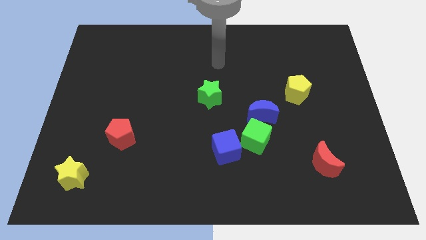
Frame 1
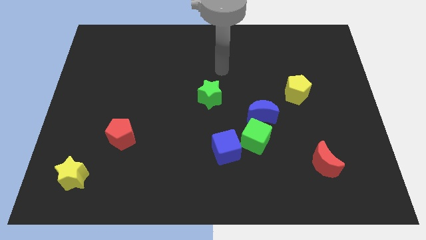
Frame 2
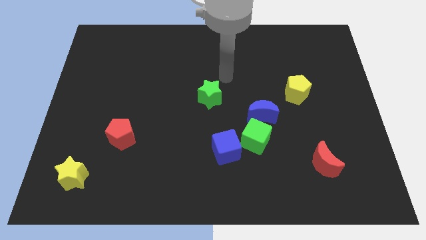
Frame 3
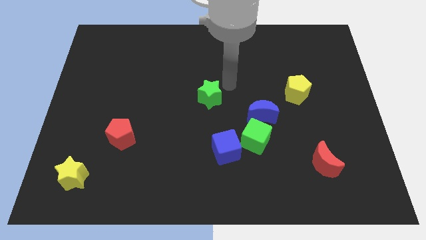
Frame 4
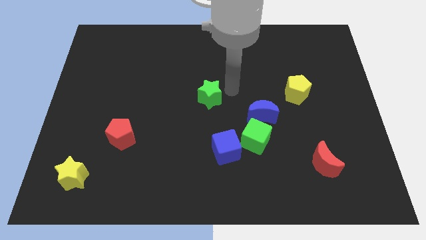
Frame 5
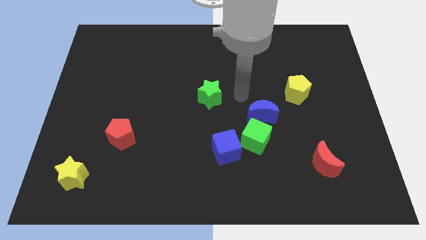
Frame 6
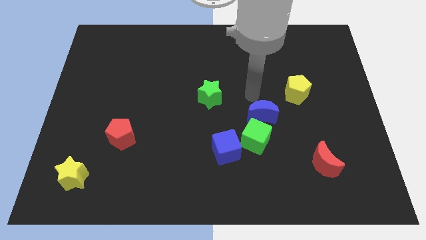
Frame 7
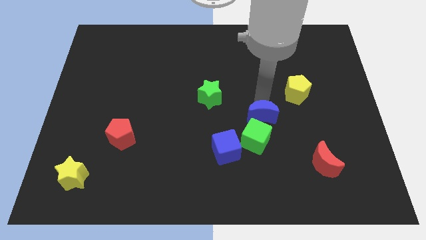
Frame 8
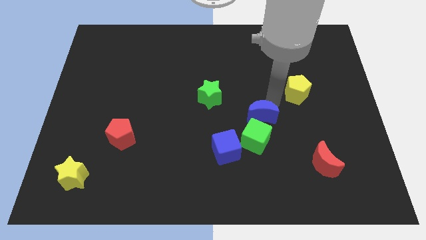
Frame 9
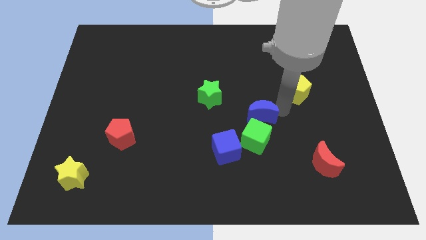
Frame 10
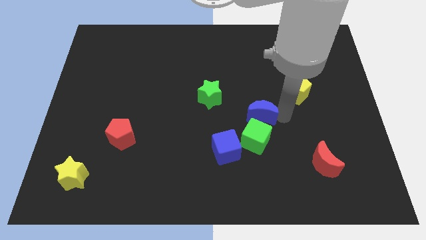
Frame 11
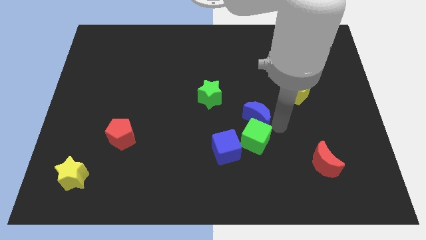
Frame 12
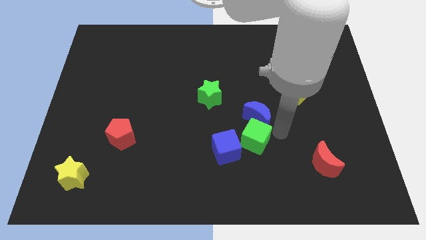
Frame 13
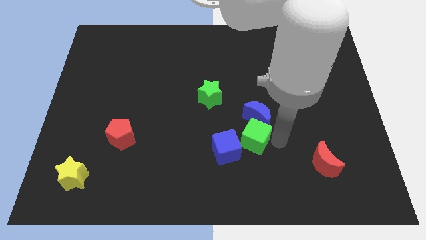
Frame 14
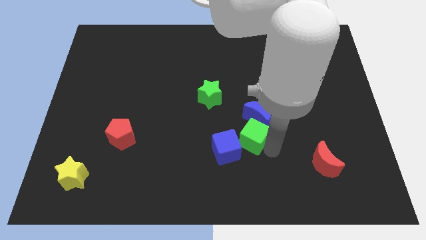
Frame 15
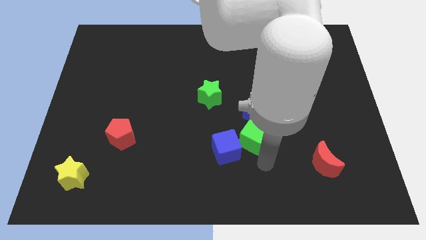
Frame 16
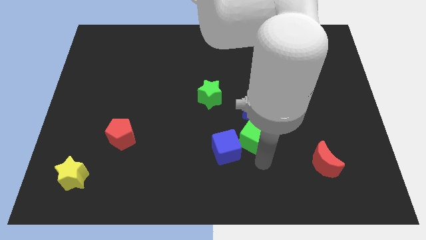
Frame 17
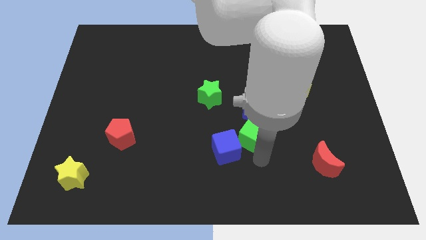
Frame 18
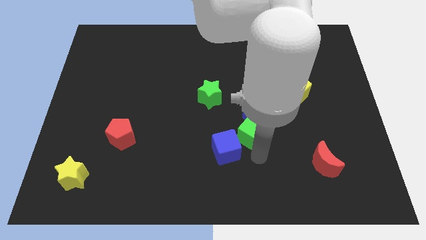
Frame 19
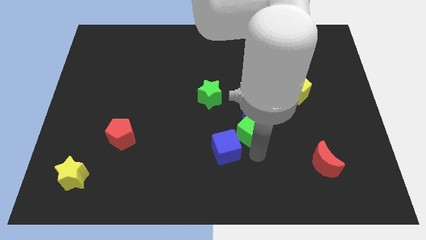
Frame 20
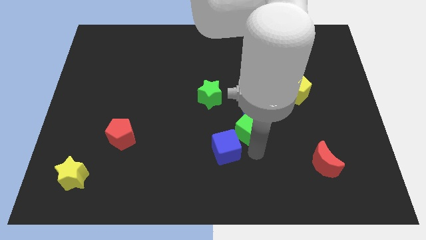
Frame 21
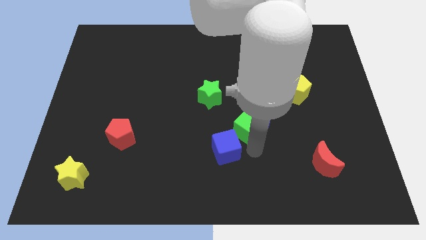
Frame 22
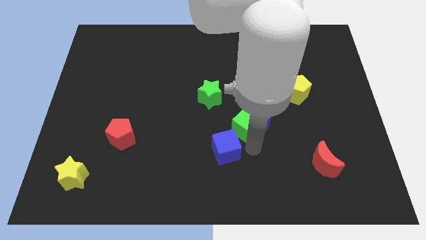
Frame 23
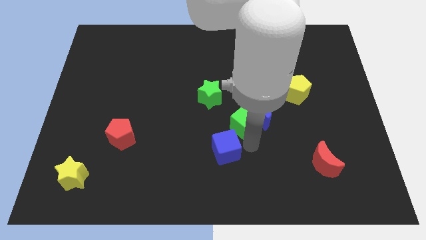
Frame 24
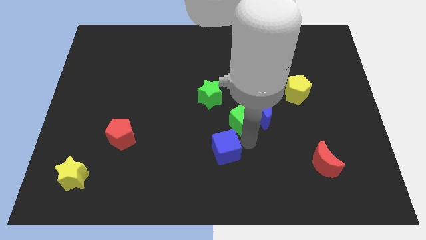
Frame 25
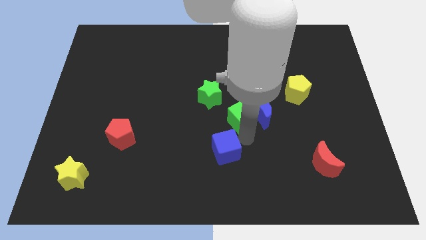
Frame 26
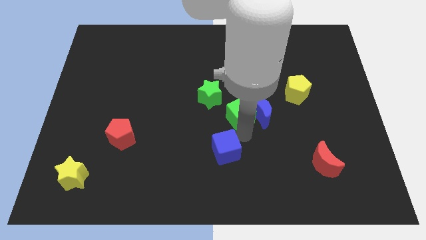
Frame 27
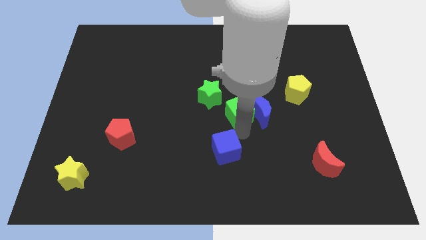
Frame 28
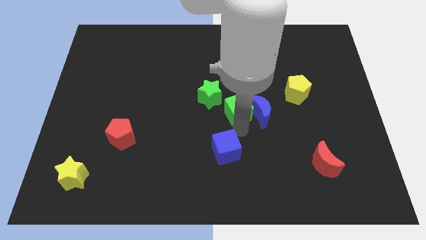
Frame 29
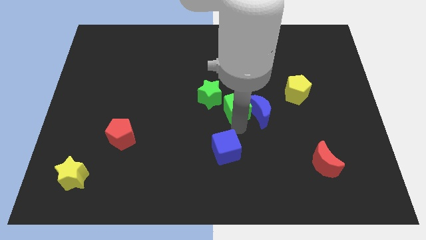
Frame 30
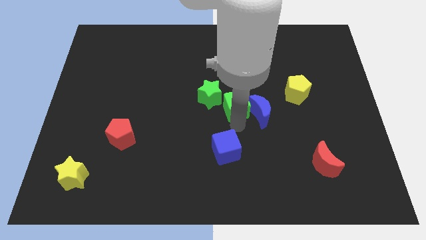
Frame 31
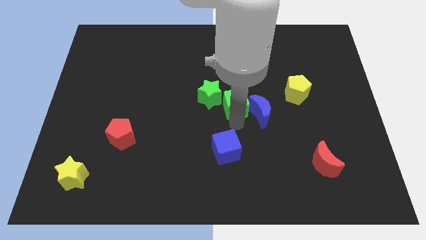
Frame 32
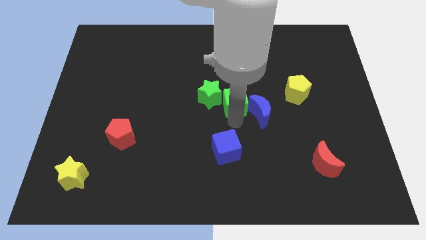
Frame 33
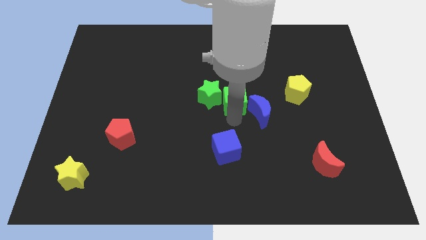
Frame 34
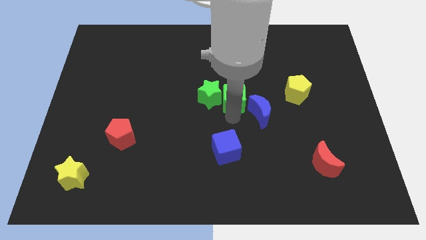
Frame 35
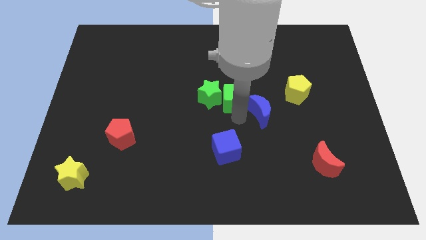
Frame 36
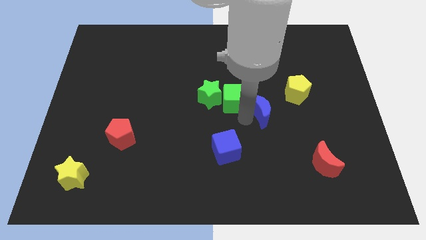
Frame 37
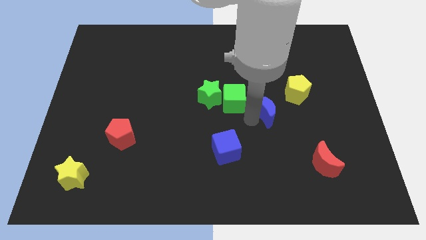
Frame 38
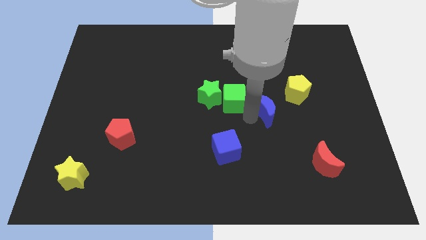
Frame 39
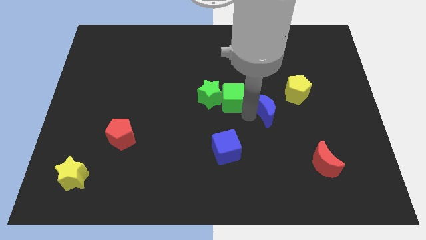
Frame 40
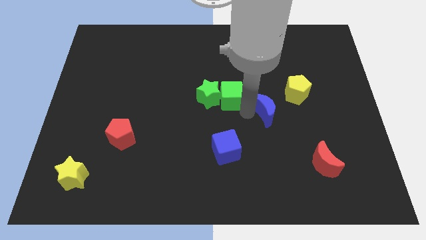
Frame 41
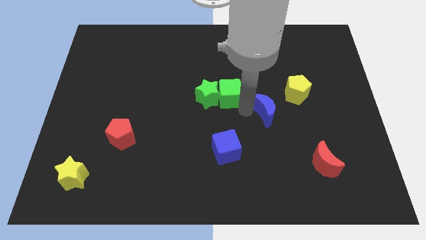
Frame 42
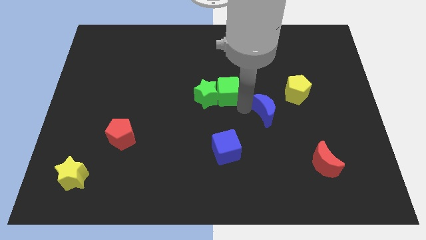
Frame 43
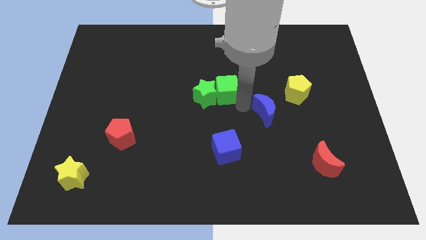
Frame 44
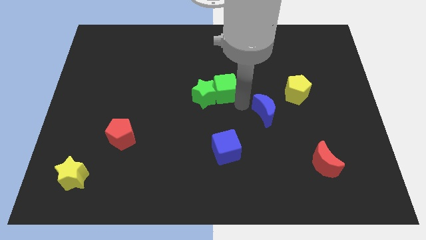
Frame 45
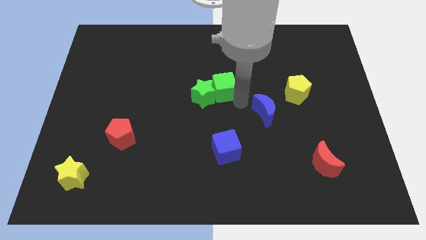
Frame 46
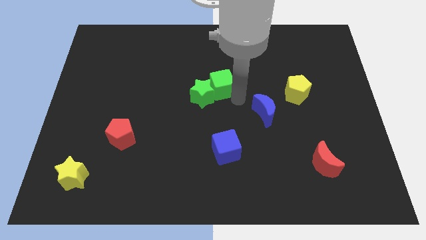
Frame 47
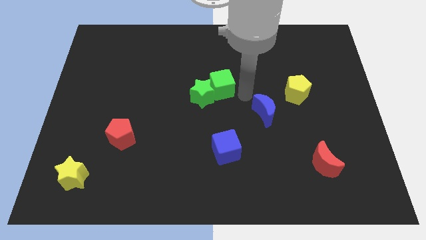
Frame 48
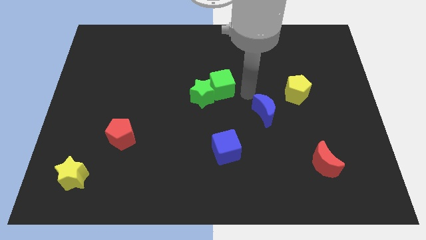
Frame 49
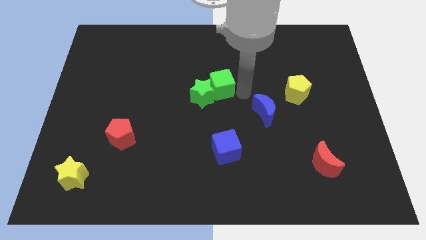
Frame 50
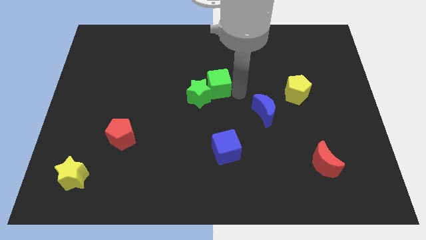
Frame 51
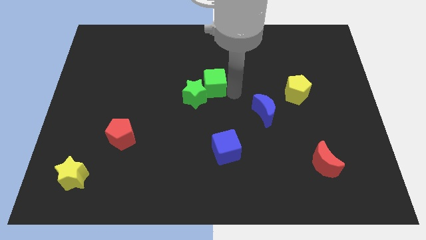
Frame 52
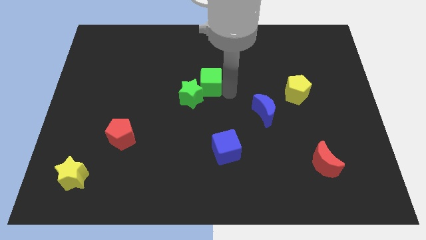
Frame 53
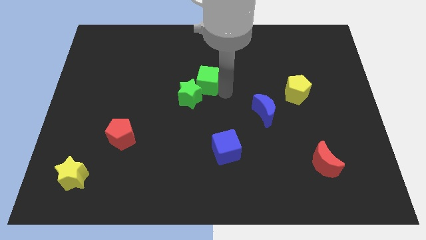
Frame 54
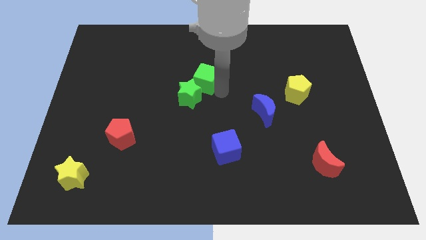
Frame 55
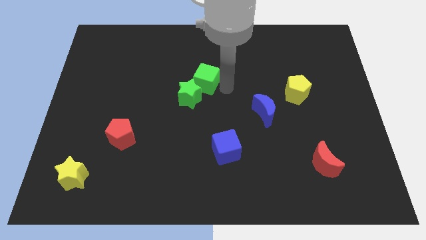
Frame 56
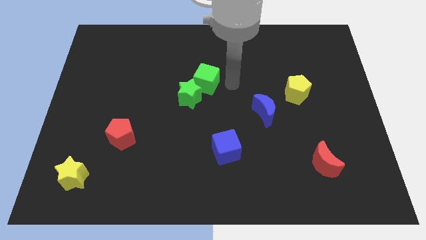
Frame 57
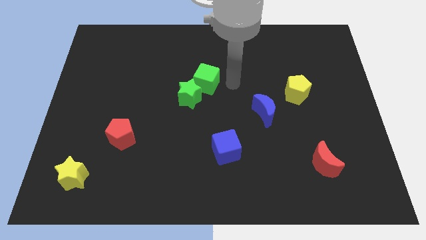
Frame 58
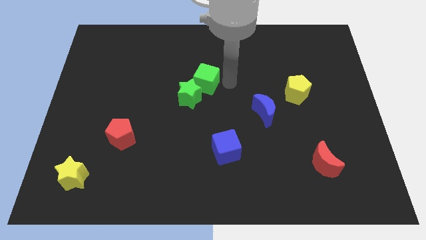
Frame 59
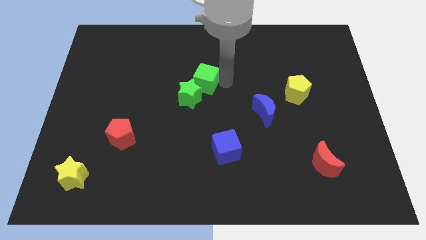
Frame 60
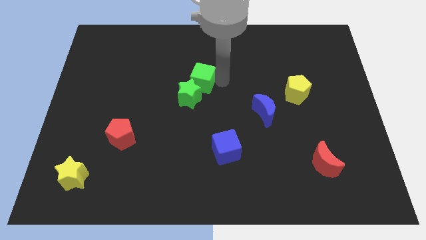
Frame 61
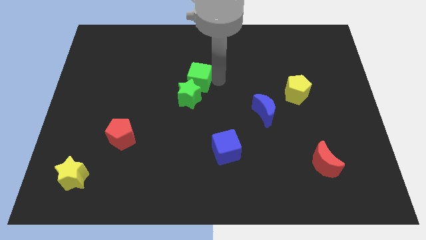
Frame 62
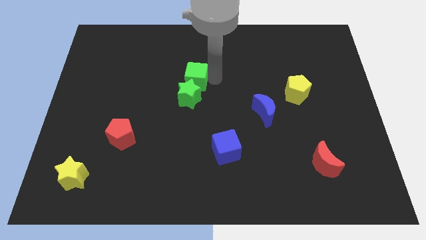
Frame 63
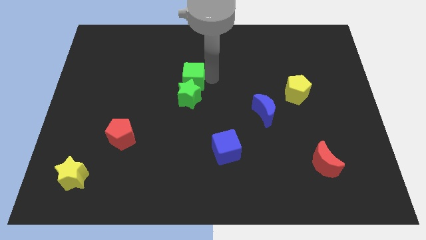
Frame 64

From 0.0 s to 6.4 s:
slide the green cube to the top left of the green star

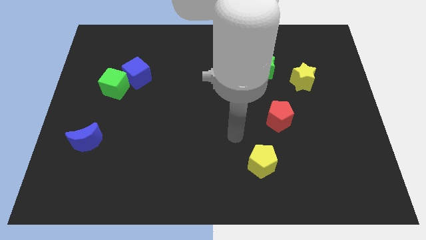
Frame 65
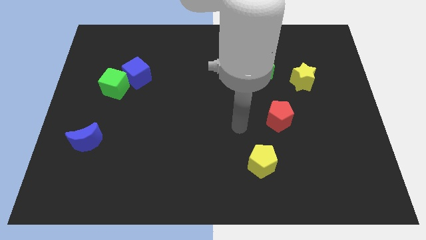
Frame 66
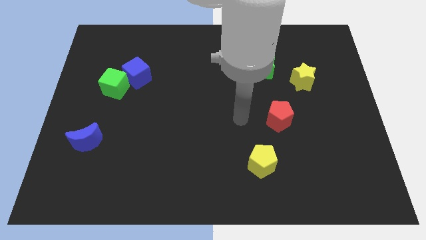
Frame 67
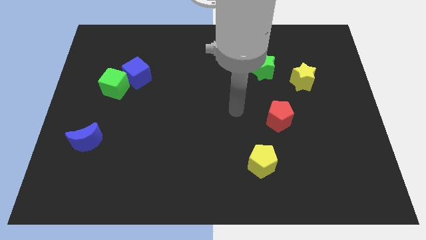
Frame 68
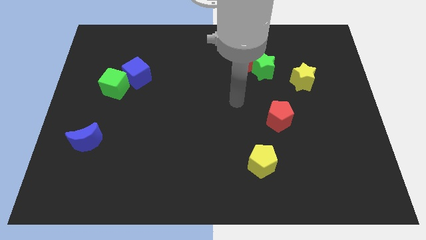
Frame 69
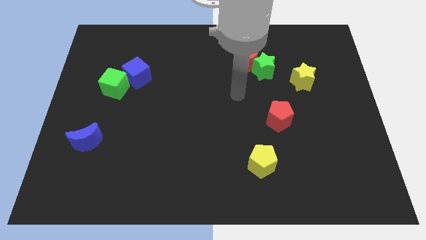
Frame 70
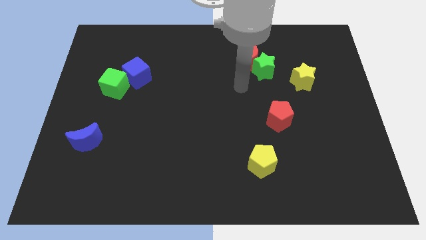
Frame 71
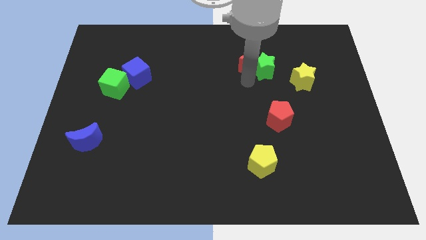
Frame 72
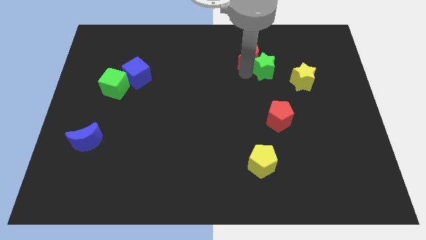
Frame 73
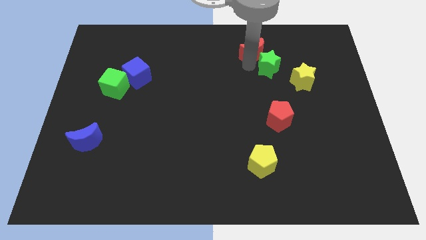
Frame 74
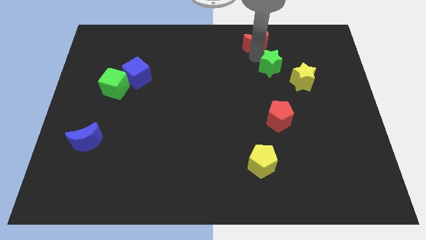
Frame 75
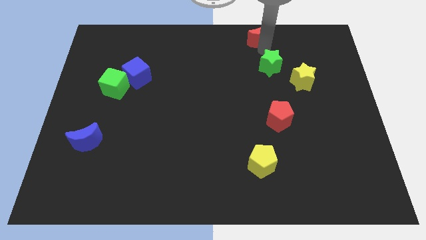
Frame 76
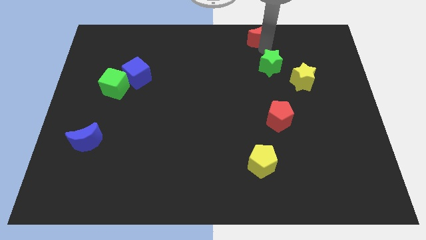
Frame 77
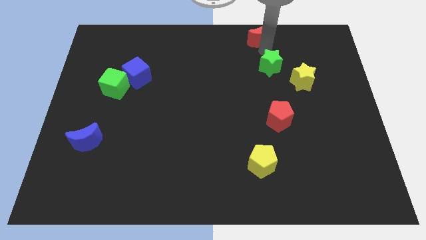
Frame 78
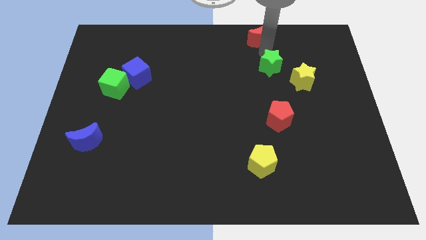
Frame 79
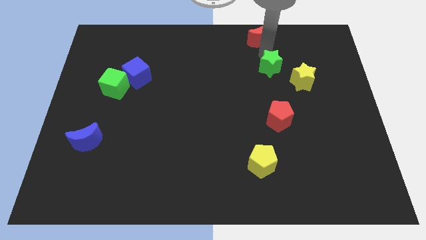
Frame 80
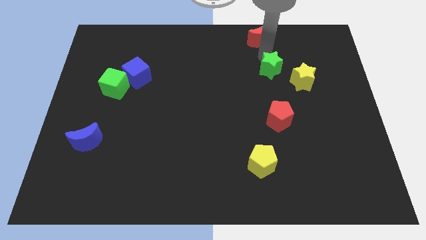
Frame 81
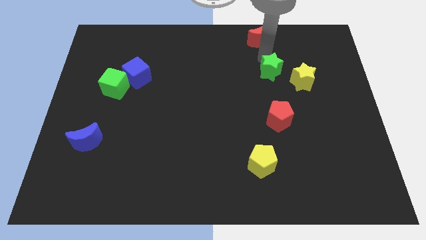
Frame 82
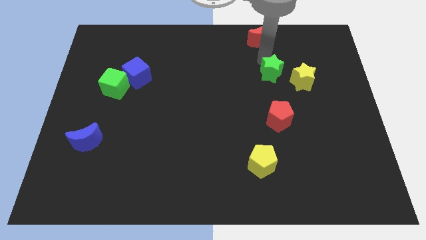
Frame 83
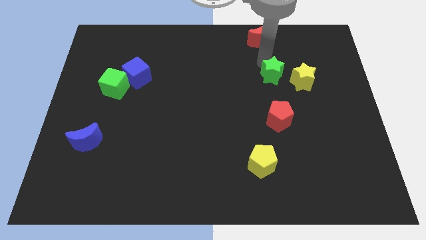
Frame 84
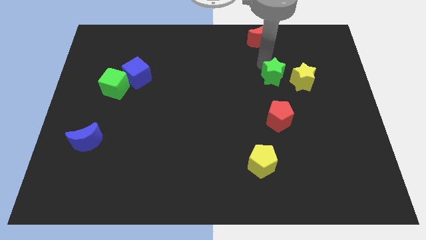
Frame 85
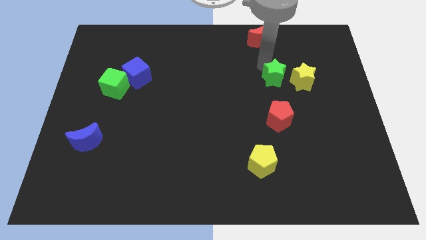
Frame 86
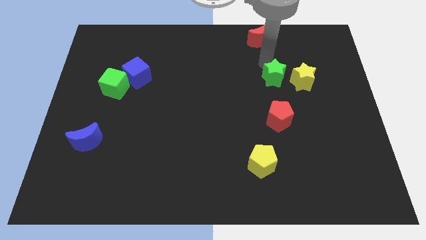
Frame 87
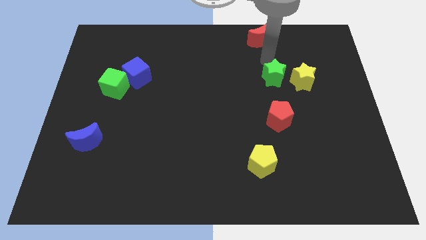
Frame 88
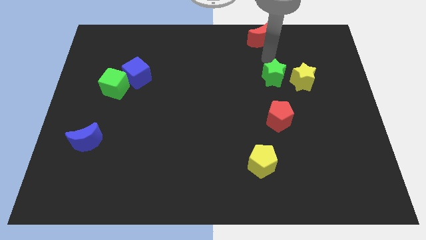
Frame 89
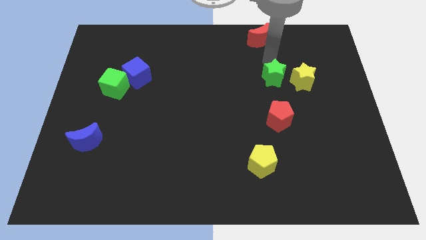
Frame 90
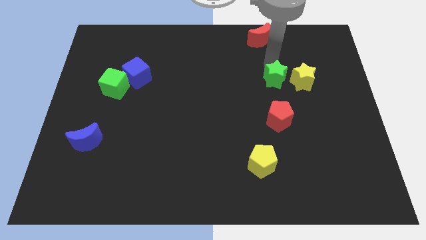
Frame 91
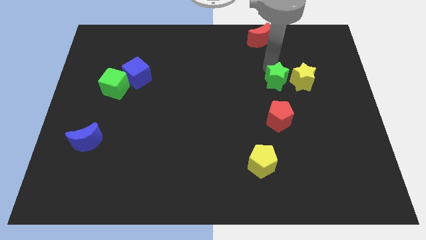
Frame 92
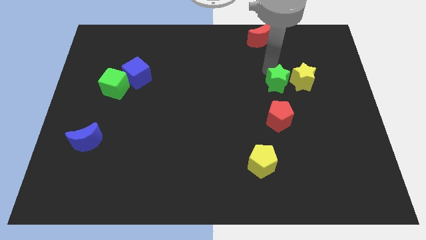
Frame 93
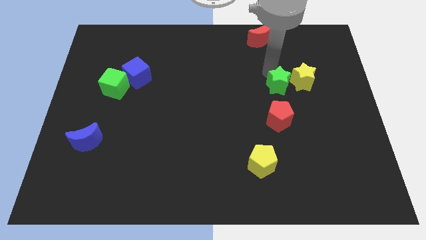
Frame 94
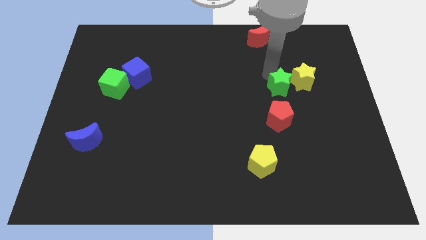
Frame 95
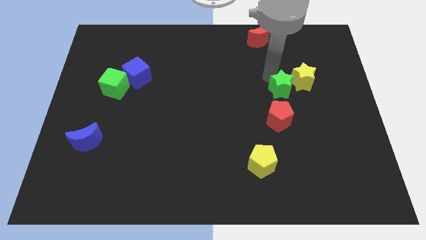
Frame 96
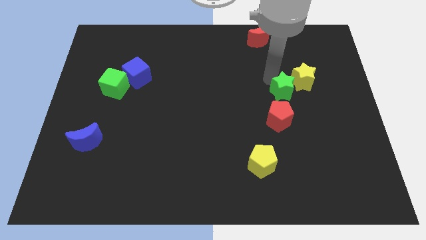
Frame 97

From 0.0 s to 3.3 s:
push the green star to the top right of the red pentagon
